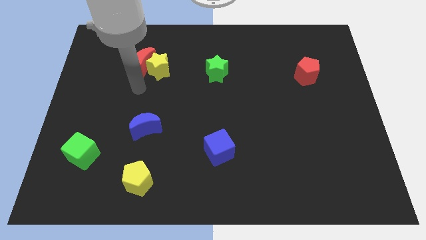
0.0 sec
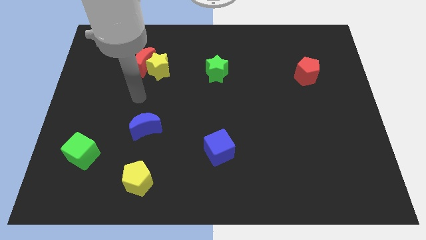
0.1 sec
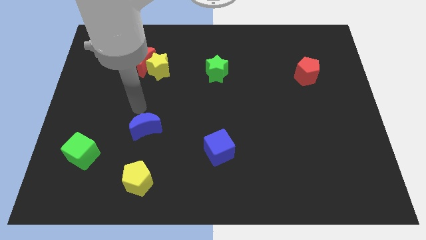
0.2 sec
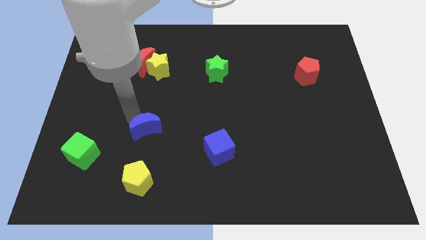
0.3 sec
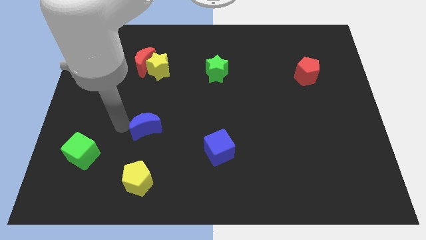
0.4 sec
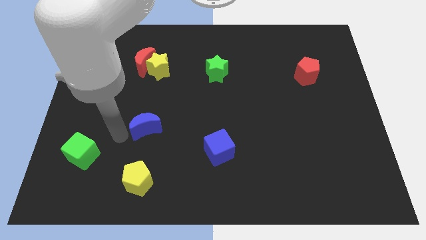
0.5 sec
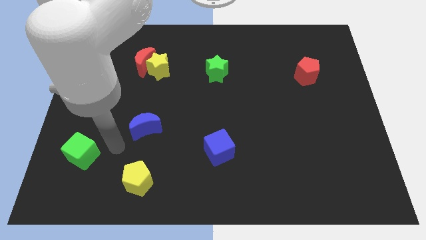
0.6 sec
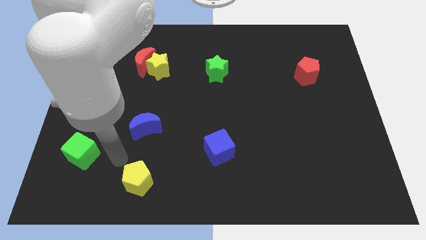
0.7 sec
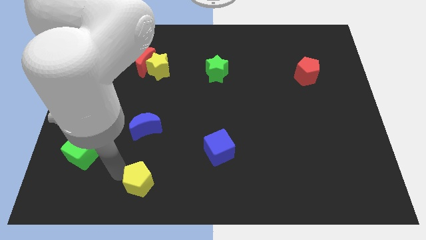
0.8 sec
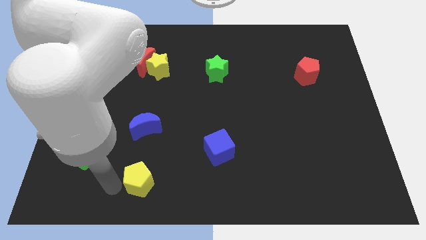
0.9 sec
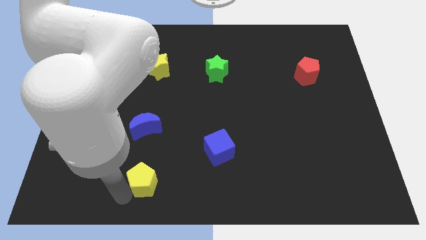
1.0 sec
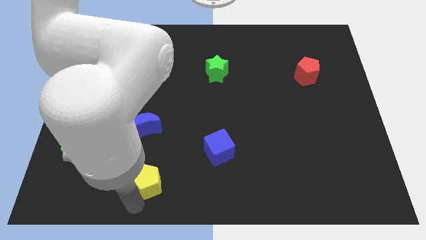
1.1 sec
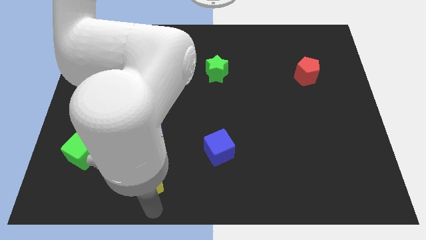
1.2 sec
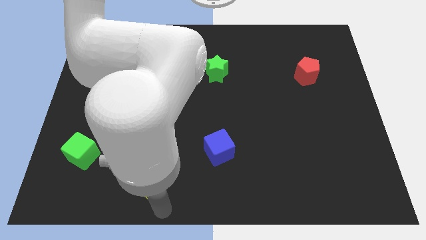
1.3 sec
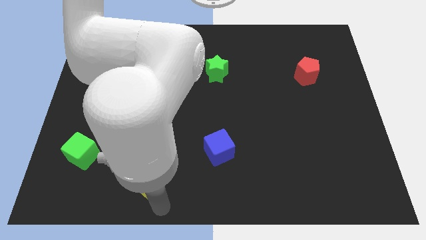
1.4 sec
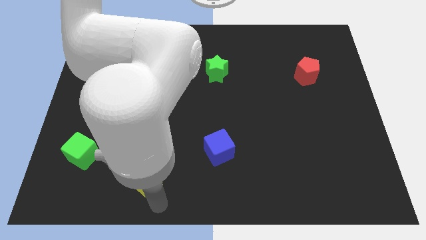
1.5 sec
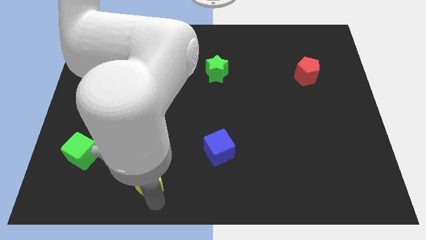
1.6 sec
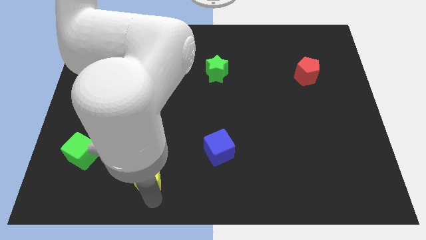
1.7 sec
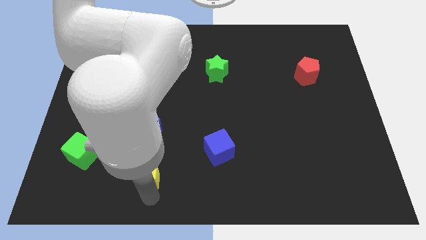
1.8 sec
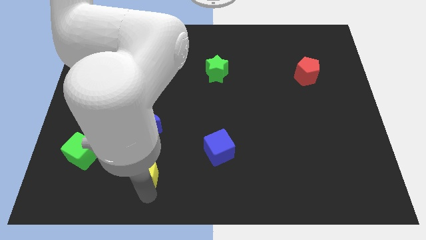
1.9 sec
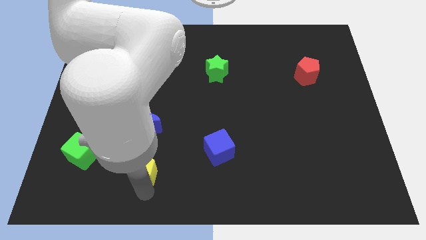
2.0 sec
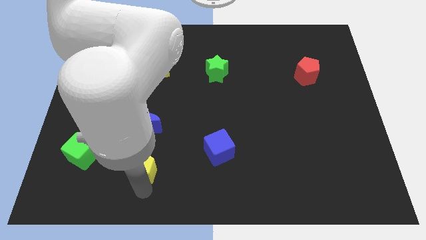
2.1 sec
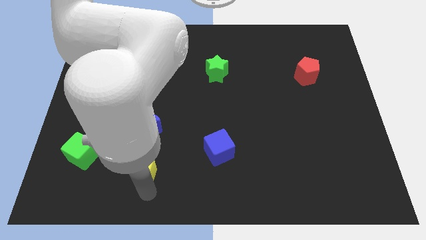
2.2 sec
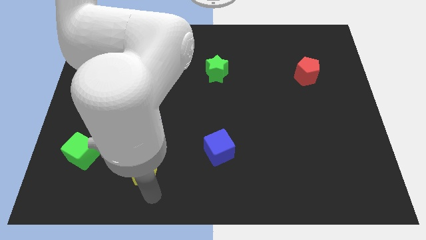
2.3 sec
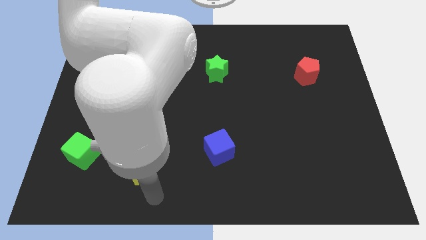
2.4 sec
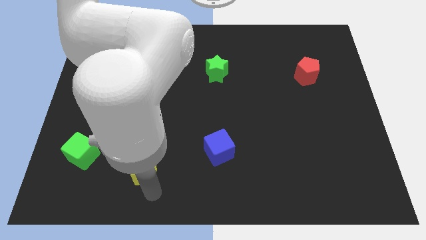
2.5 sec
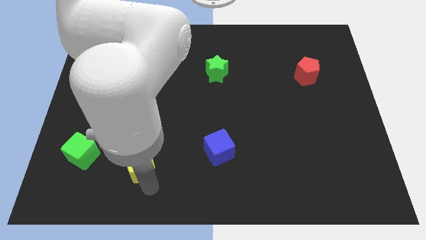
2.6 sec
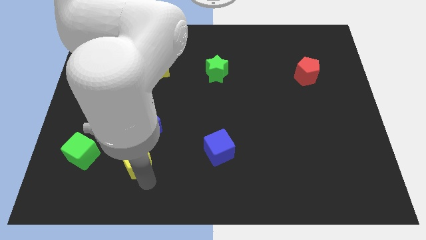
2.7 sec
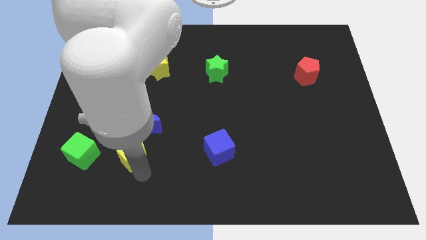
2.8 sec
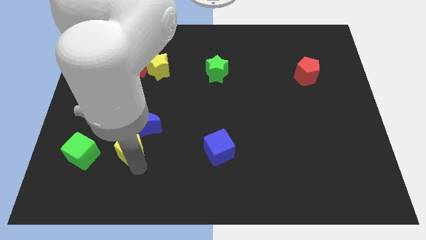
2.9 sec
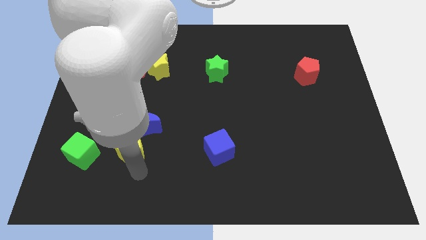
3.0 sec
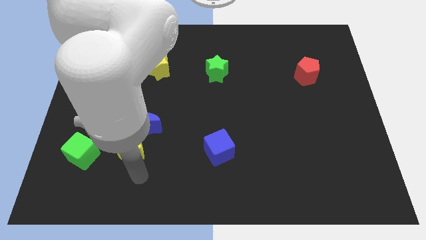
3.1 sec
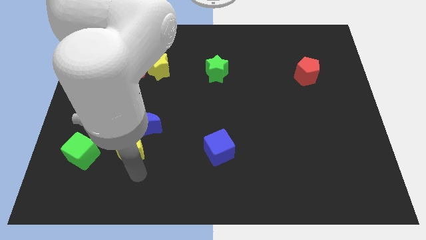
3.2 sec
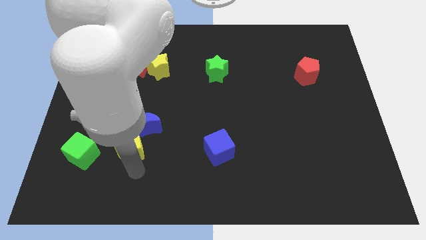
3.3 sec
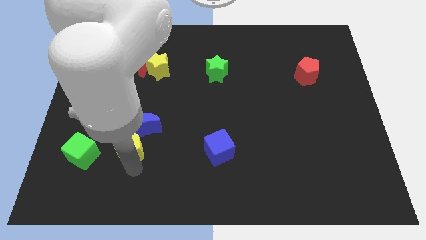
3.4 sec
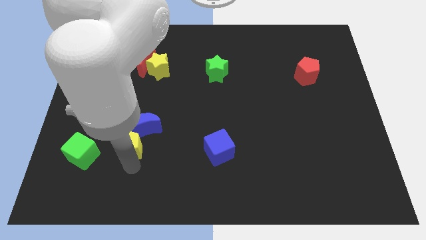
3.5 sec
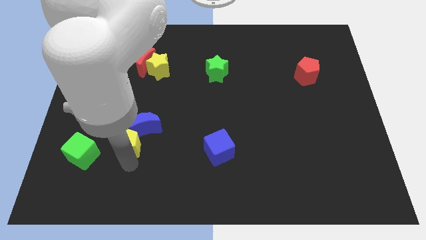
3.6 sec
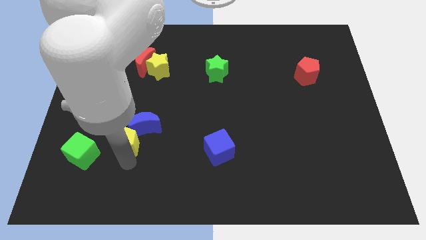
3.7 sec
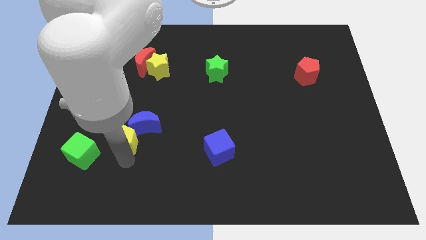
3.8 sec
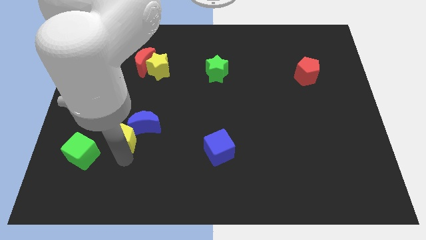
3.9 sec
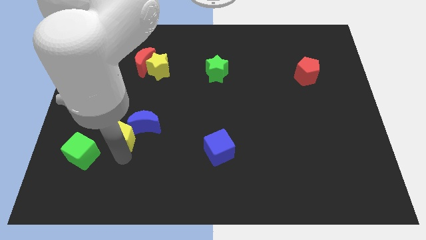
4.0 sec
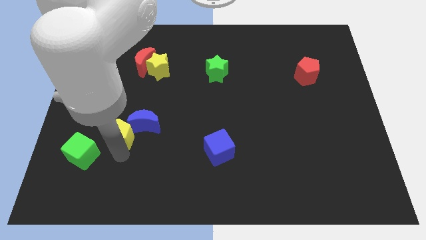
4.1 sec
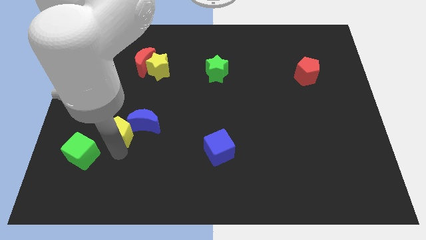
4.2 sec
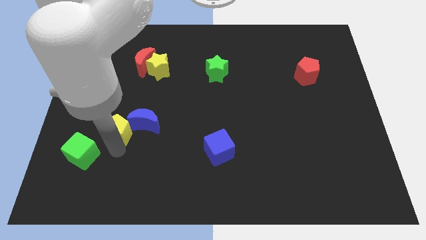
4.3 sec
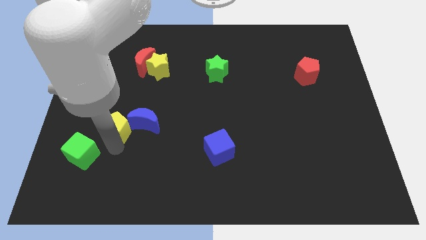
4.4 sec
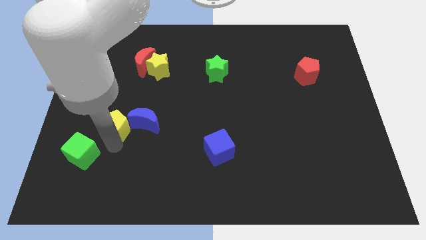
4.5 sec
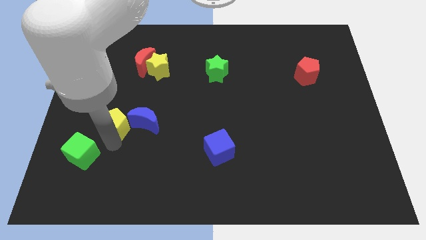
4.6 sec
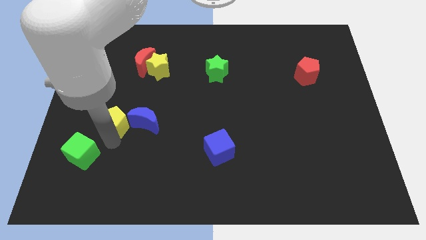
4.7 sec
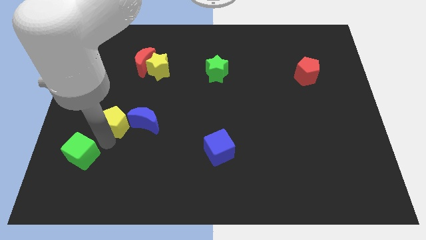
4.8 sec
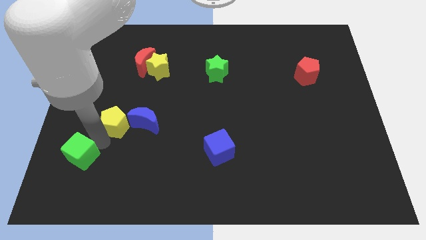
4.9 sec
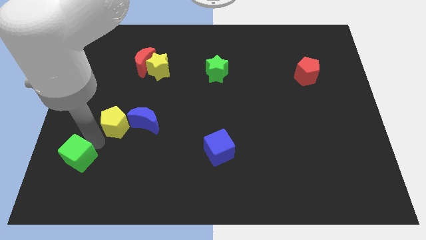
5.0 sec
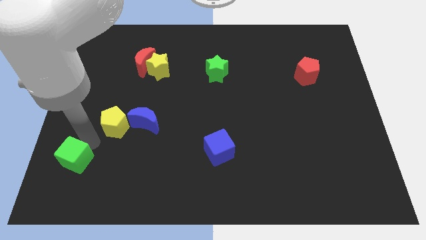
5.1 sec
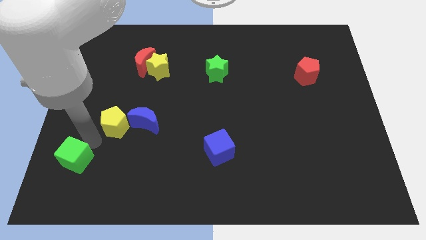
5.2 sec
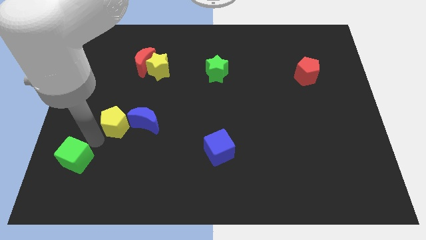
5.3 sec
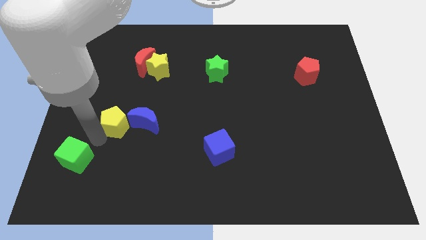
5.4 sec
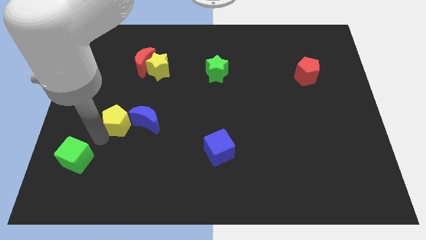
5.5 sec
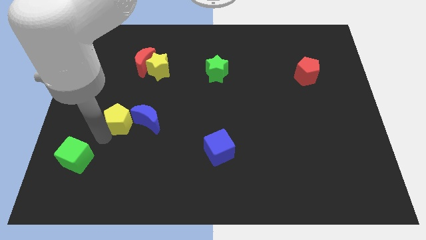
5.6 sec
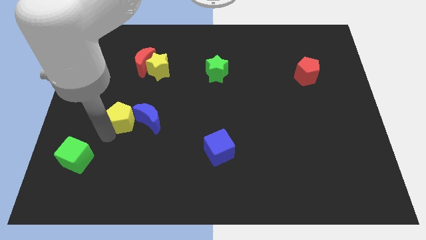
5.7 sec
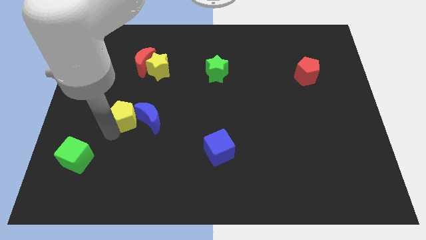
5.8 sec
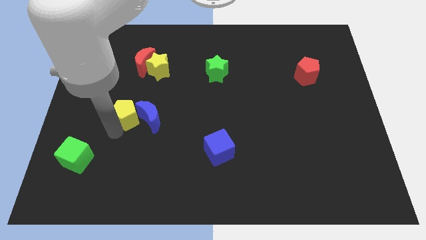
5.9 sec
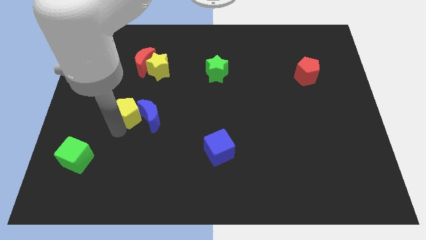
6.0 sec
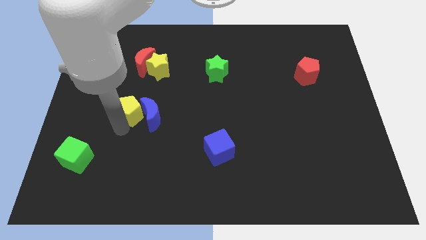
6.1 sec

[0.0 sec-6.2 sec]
slide the yellow pentagon to the bottom of the red moon

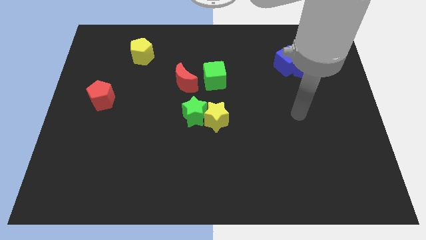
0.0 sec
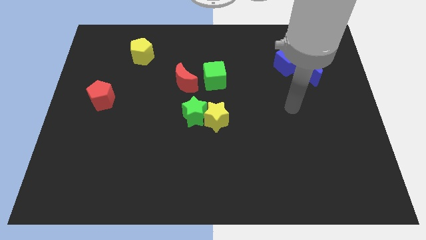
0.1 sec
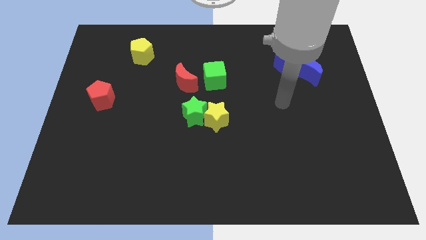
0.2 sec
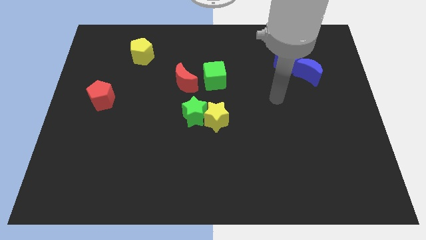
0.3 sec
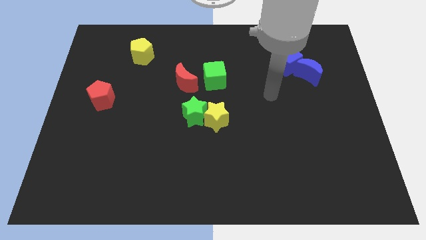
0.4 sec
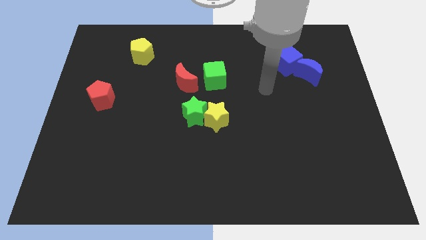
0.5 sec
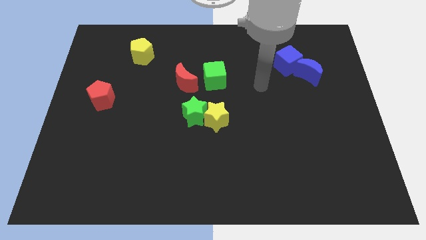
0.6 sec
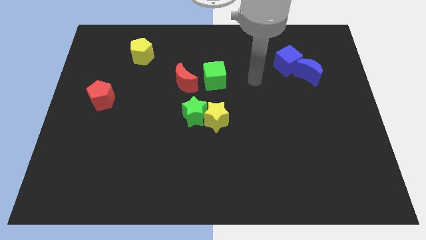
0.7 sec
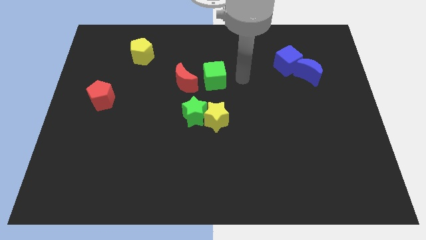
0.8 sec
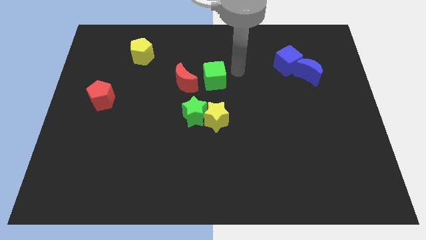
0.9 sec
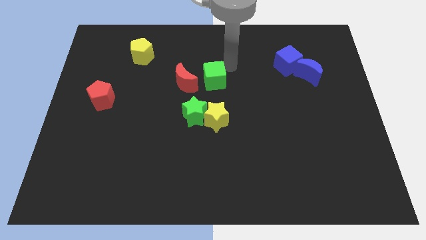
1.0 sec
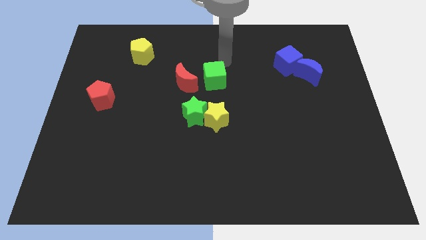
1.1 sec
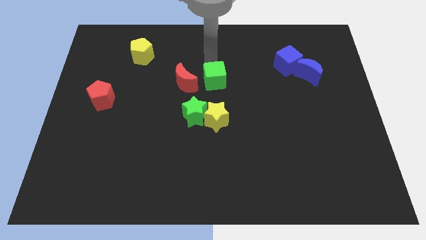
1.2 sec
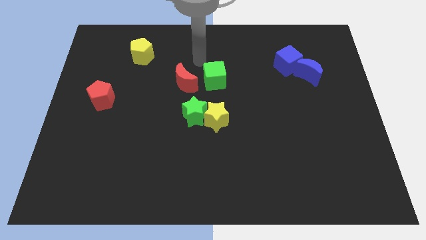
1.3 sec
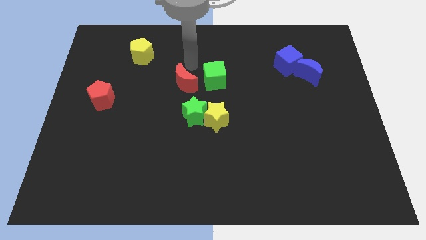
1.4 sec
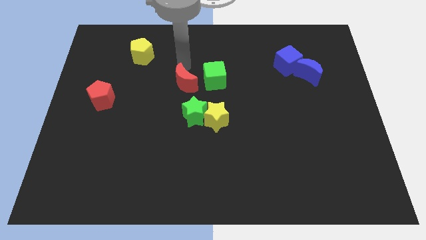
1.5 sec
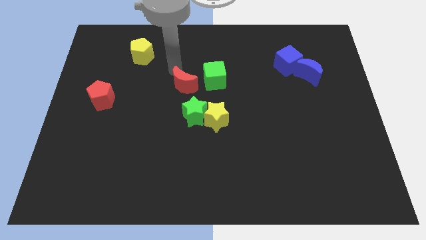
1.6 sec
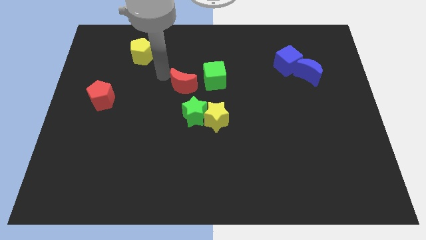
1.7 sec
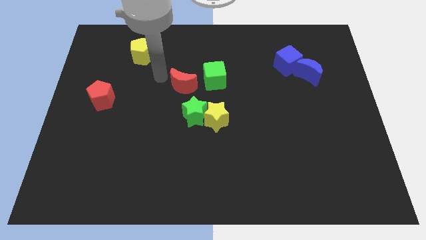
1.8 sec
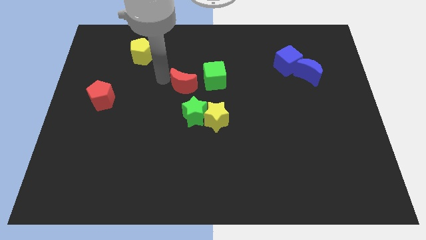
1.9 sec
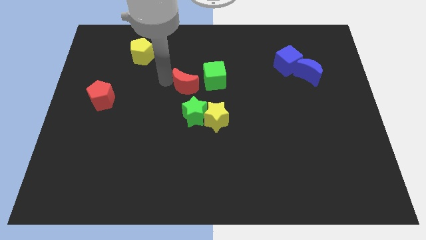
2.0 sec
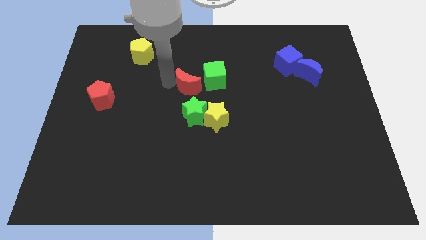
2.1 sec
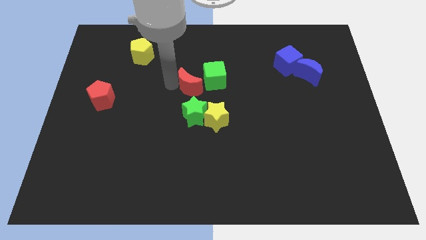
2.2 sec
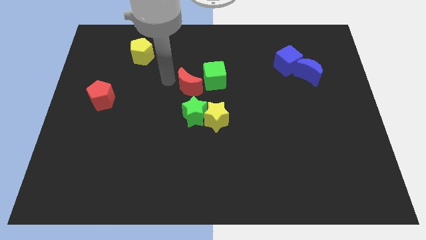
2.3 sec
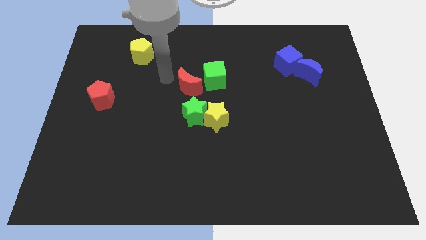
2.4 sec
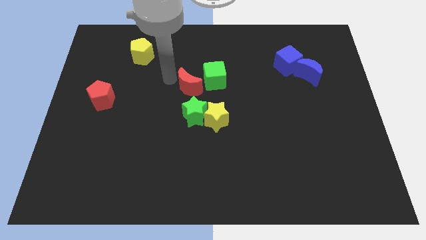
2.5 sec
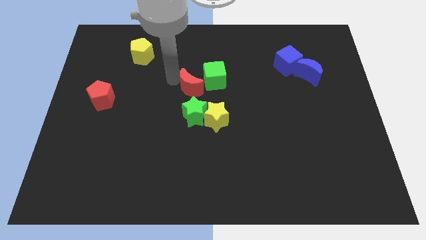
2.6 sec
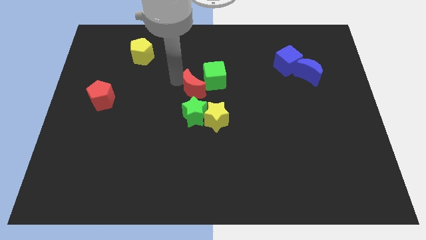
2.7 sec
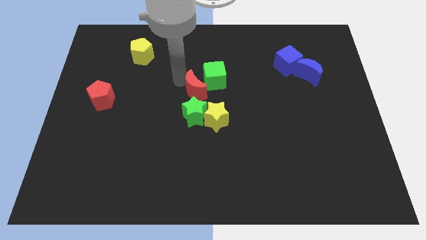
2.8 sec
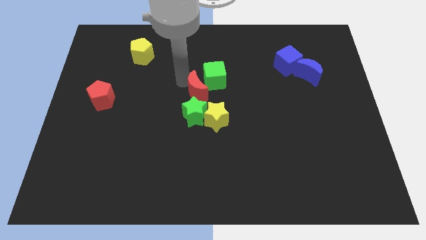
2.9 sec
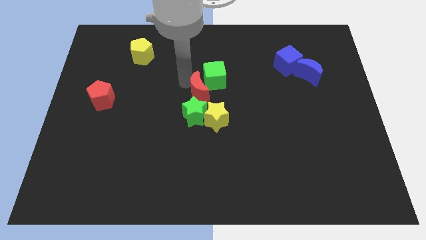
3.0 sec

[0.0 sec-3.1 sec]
put the red moon to the top right of the green star
